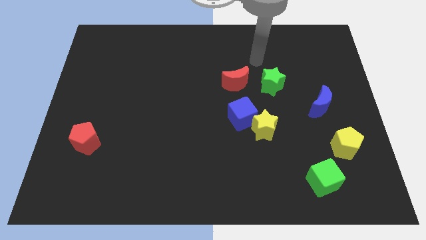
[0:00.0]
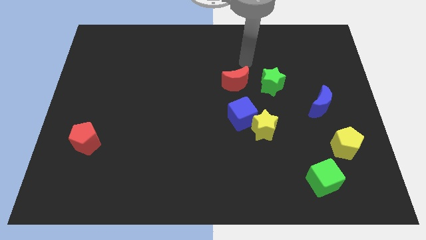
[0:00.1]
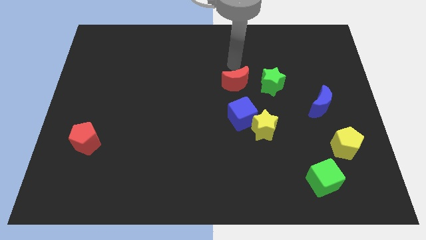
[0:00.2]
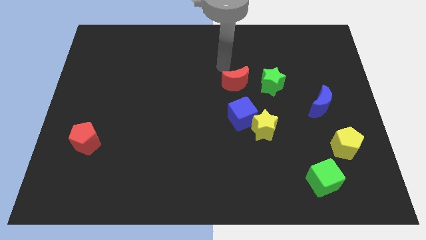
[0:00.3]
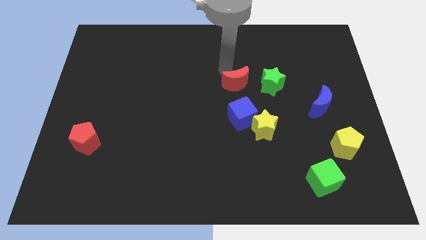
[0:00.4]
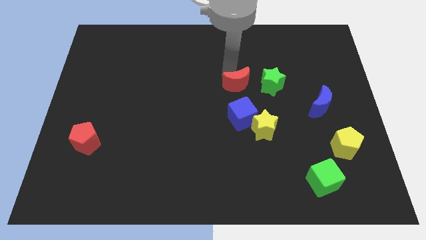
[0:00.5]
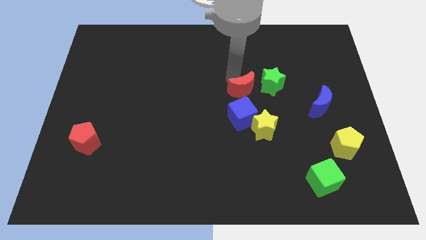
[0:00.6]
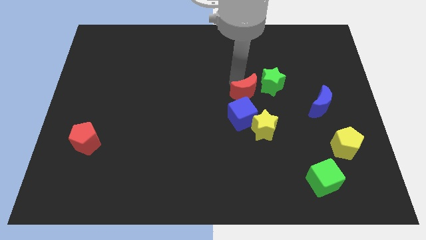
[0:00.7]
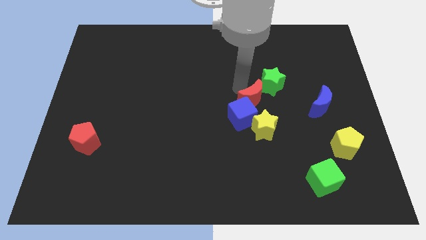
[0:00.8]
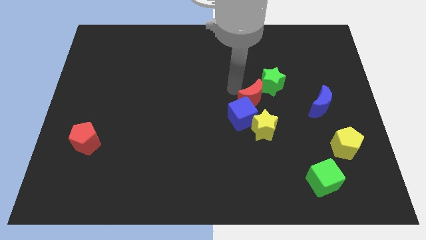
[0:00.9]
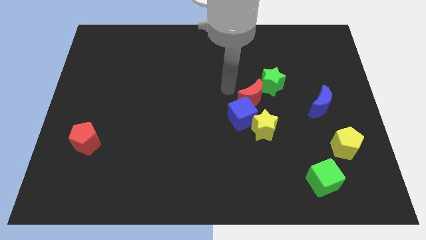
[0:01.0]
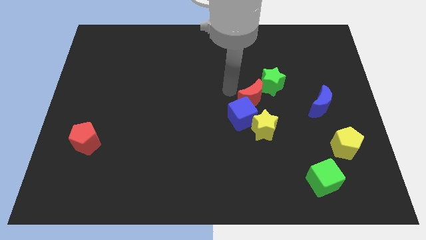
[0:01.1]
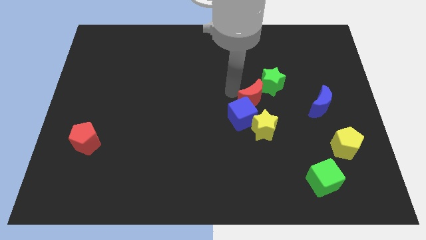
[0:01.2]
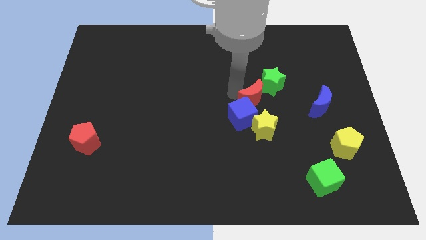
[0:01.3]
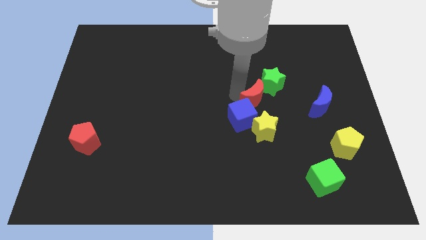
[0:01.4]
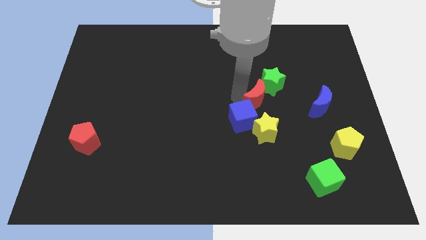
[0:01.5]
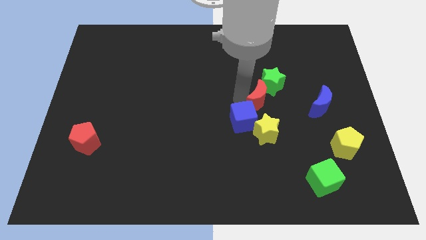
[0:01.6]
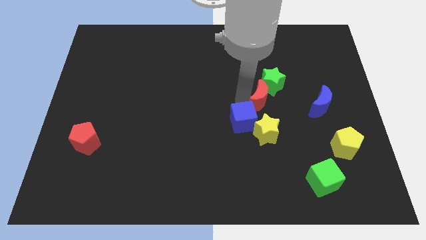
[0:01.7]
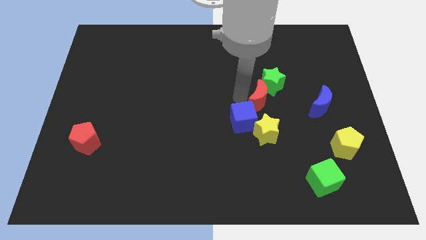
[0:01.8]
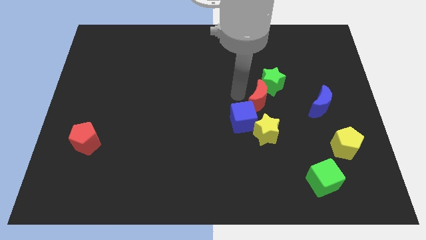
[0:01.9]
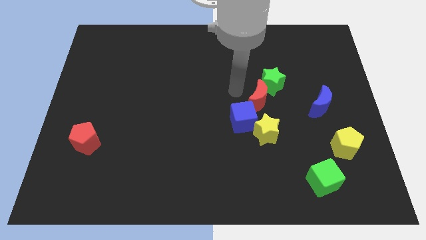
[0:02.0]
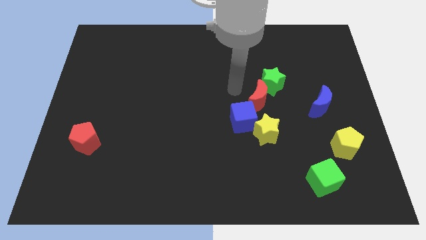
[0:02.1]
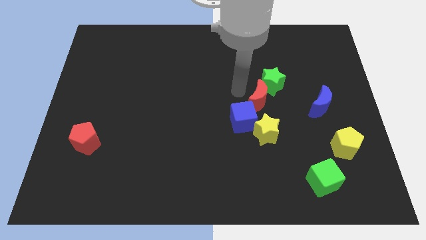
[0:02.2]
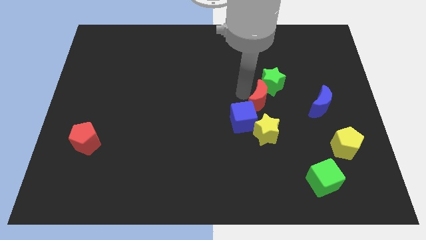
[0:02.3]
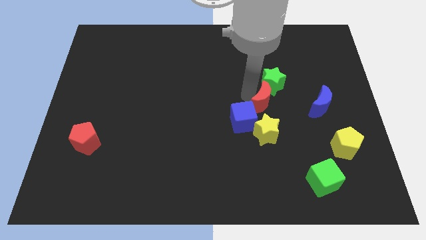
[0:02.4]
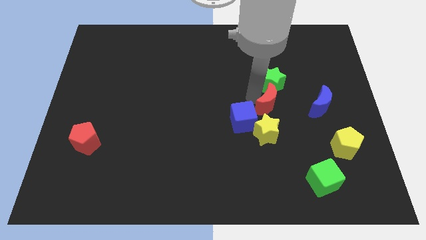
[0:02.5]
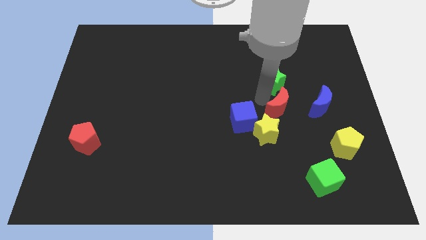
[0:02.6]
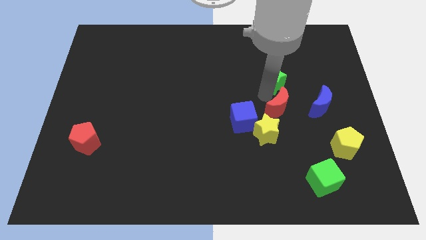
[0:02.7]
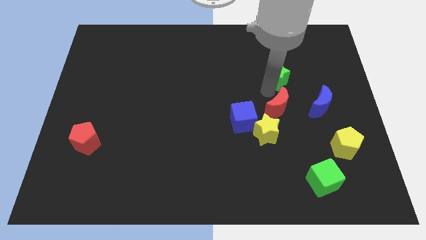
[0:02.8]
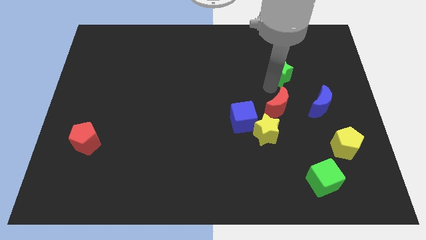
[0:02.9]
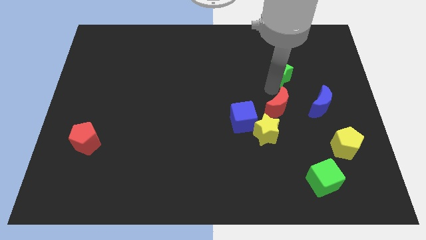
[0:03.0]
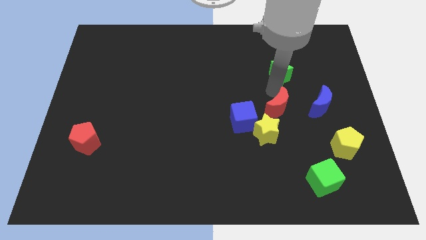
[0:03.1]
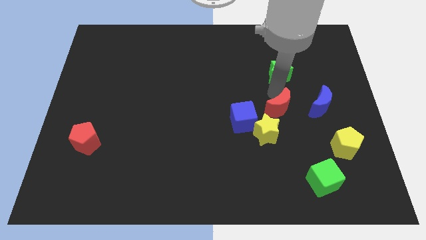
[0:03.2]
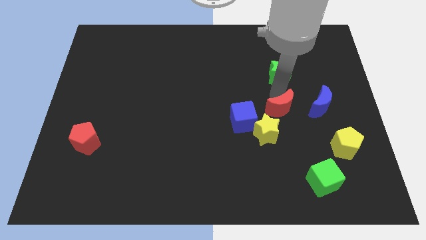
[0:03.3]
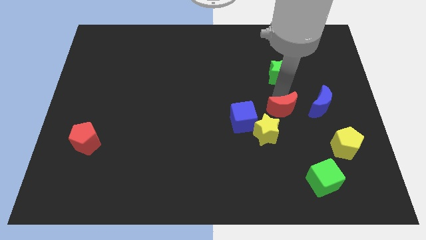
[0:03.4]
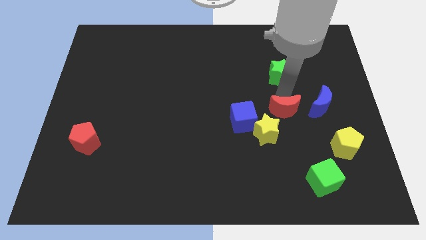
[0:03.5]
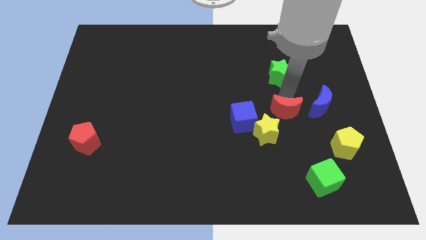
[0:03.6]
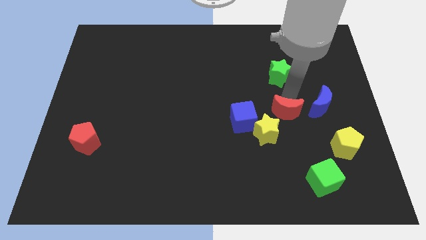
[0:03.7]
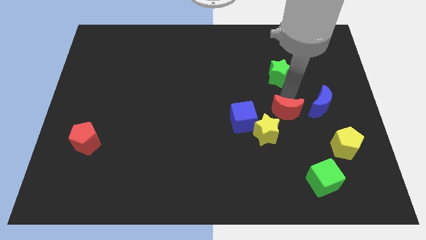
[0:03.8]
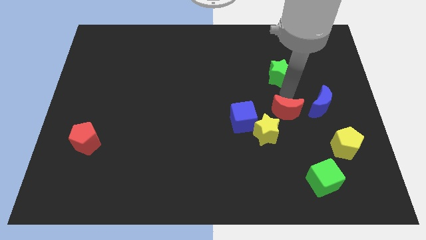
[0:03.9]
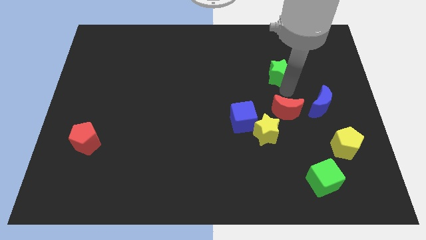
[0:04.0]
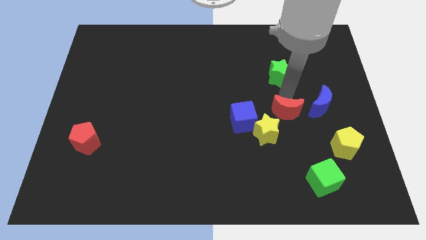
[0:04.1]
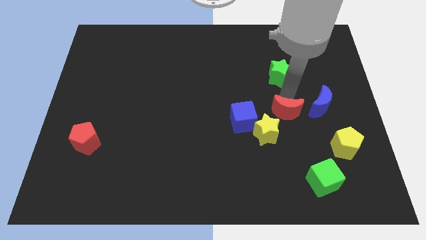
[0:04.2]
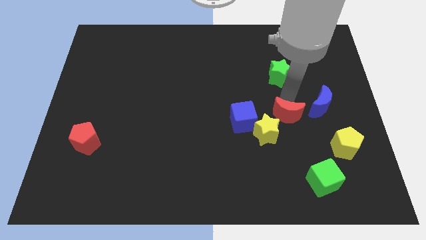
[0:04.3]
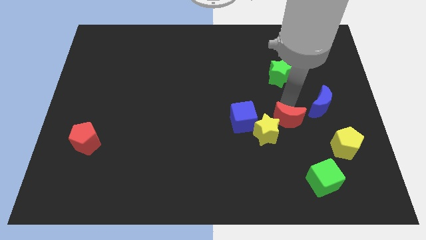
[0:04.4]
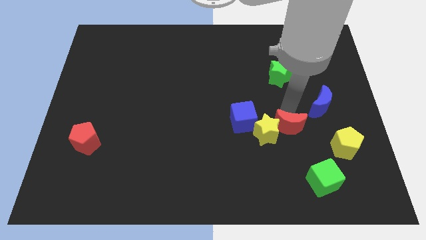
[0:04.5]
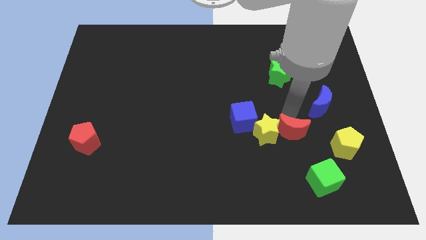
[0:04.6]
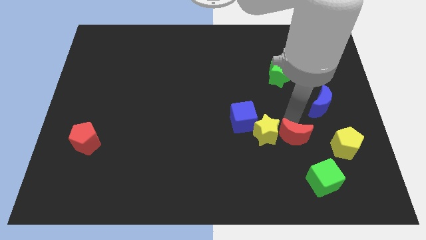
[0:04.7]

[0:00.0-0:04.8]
move the red moon to the top left of the green cube

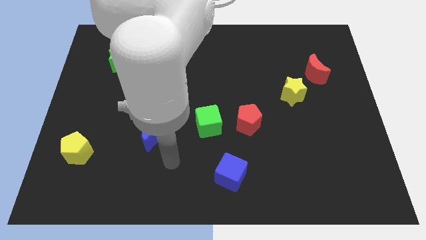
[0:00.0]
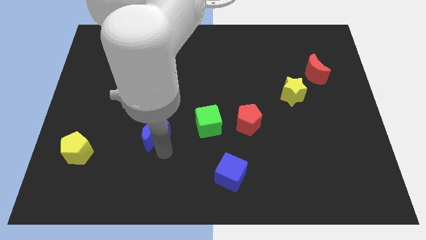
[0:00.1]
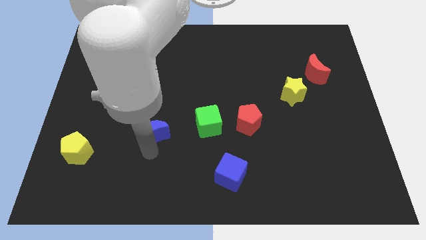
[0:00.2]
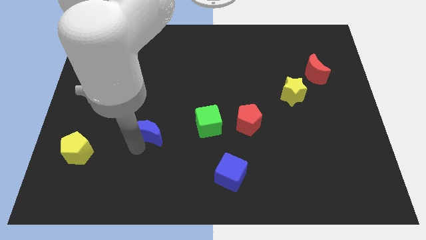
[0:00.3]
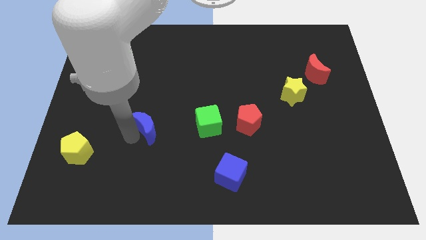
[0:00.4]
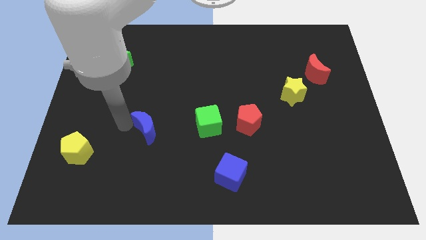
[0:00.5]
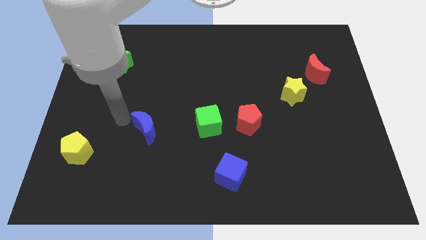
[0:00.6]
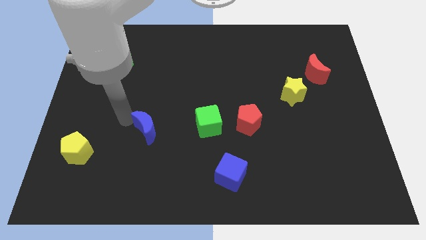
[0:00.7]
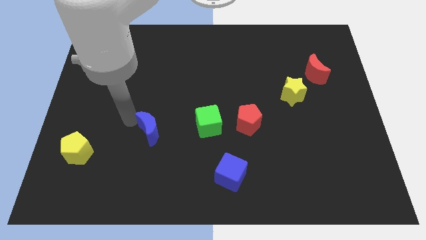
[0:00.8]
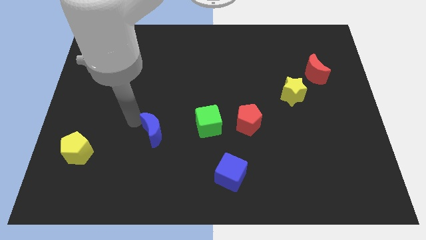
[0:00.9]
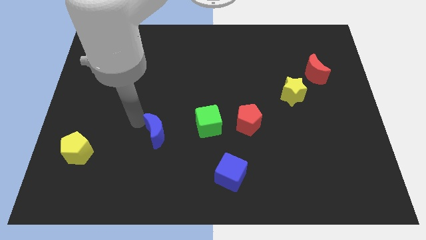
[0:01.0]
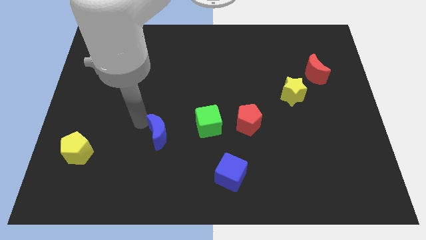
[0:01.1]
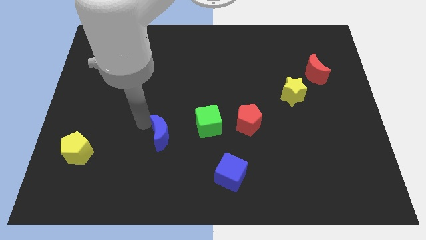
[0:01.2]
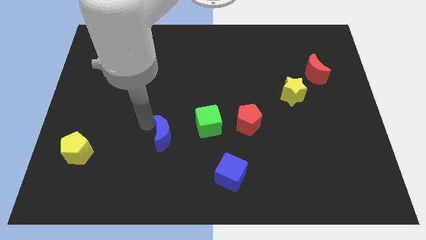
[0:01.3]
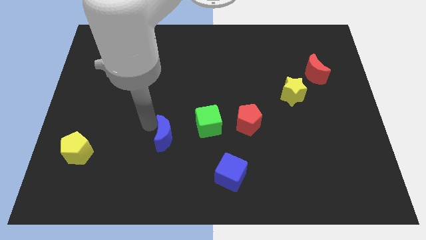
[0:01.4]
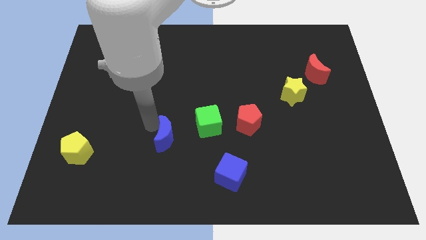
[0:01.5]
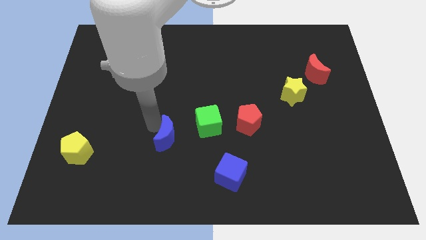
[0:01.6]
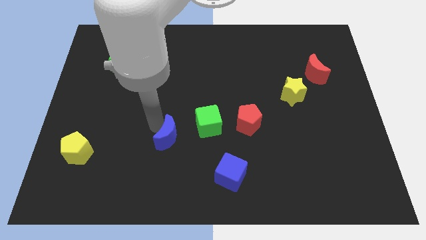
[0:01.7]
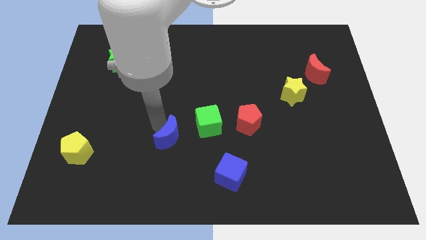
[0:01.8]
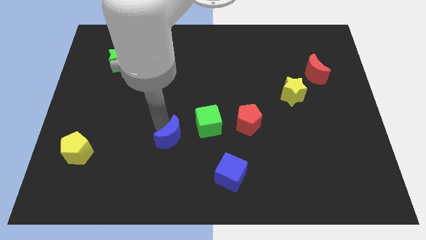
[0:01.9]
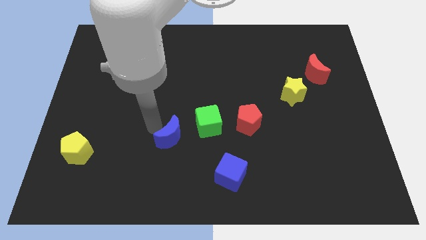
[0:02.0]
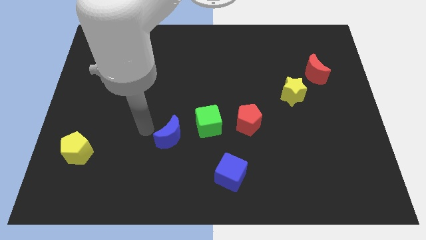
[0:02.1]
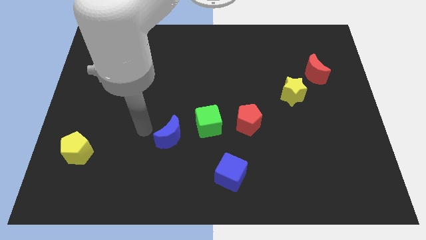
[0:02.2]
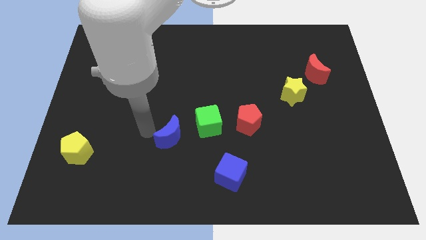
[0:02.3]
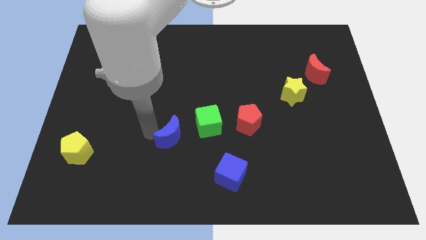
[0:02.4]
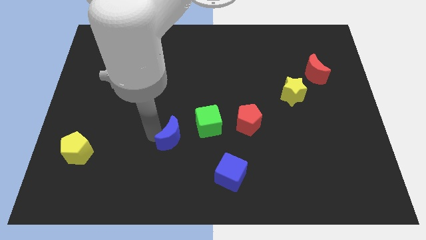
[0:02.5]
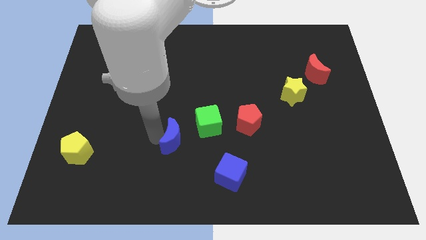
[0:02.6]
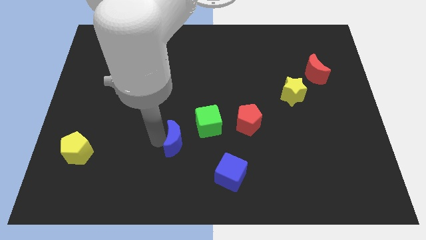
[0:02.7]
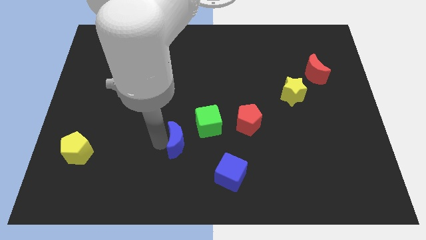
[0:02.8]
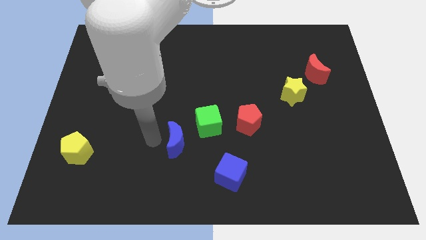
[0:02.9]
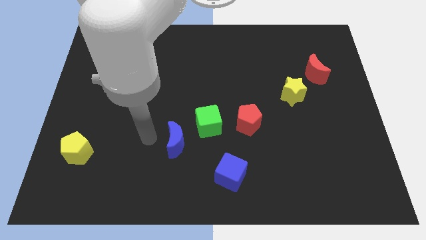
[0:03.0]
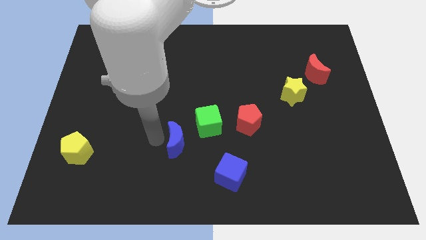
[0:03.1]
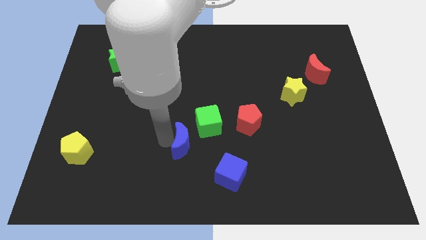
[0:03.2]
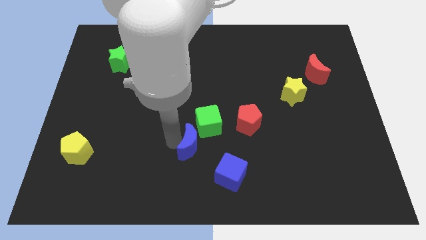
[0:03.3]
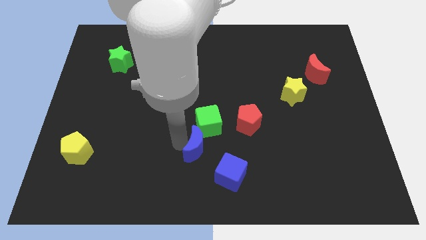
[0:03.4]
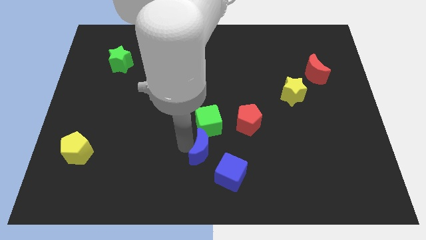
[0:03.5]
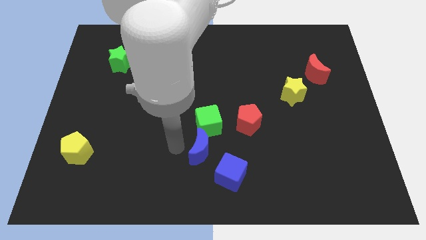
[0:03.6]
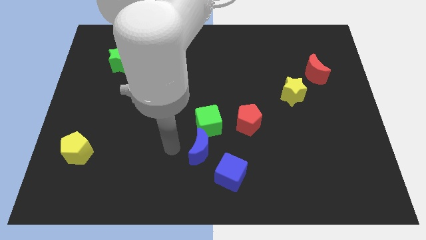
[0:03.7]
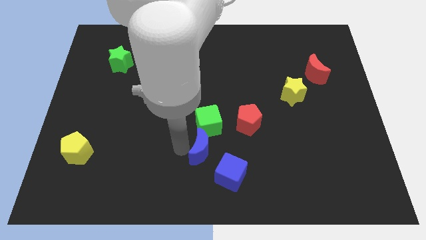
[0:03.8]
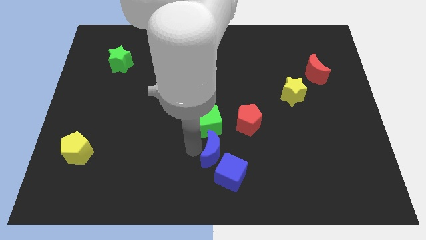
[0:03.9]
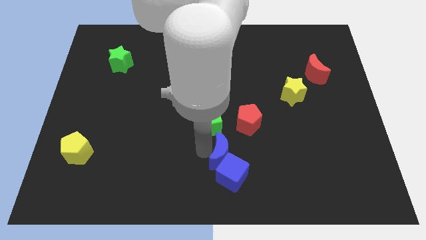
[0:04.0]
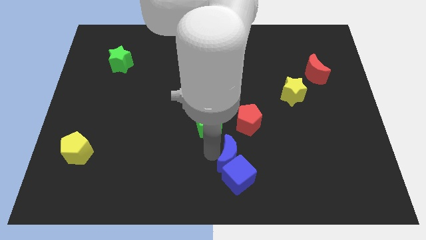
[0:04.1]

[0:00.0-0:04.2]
put the blue moon to the top right of the blue cube
